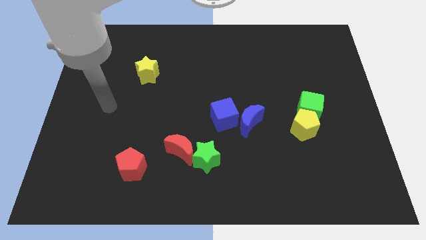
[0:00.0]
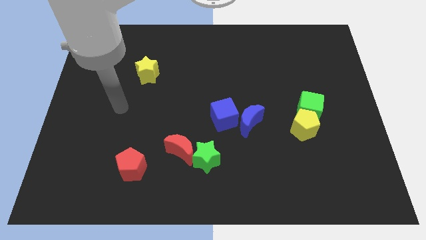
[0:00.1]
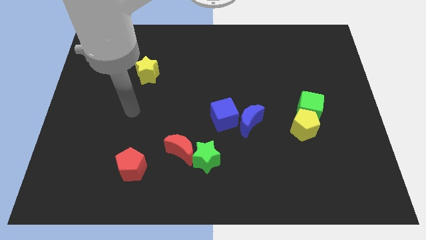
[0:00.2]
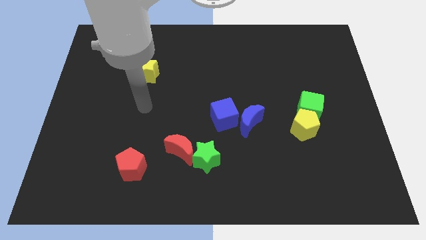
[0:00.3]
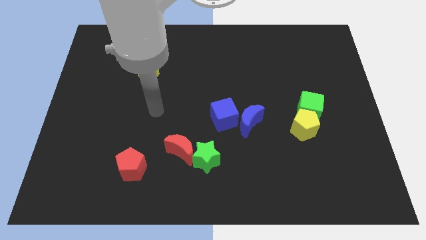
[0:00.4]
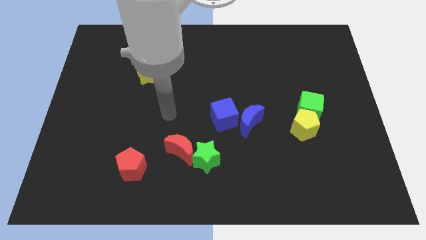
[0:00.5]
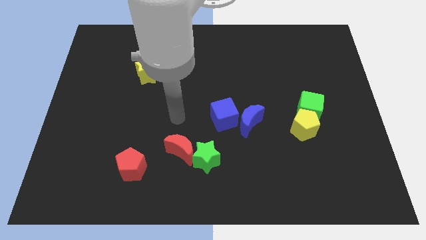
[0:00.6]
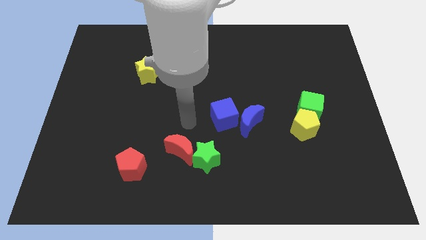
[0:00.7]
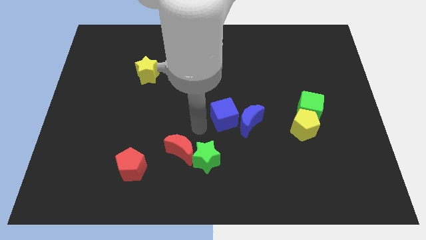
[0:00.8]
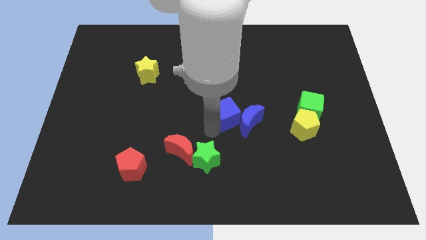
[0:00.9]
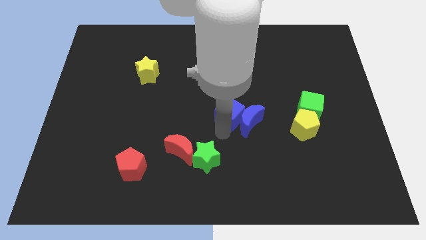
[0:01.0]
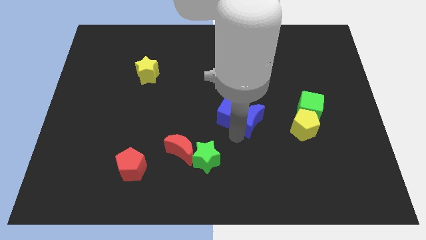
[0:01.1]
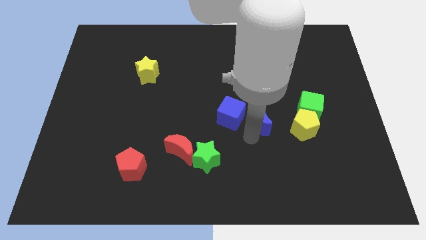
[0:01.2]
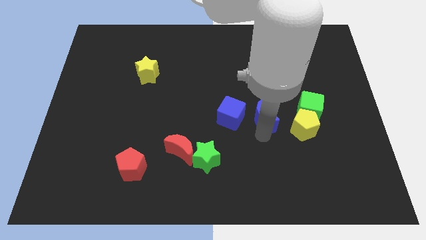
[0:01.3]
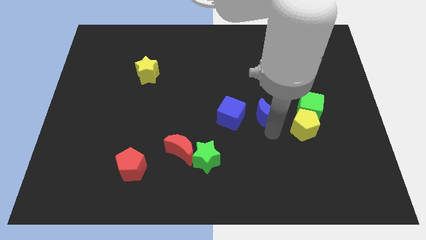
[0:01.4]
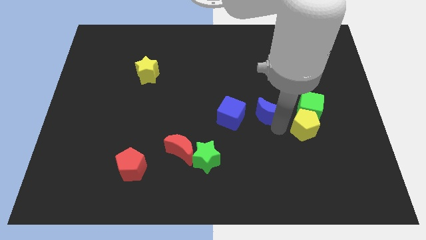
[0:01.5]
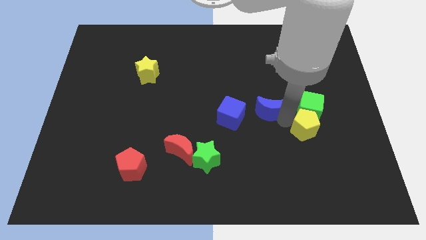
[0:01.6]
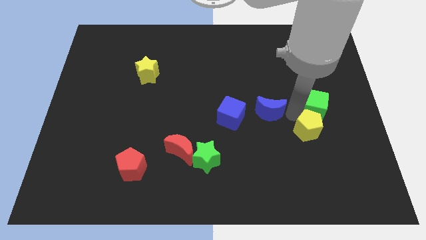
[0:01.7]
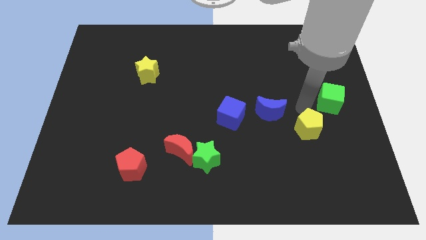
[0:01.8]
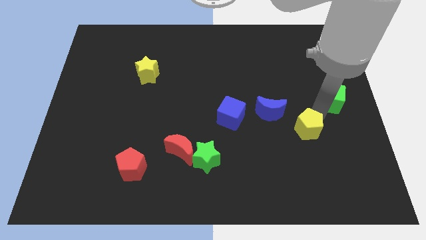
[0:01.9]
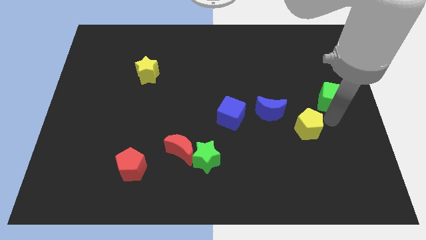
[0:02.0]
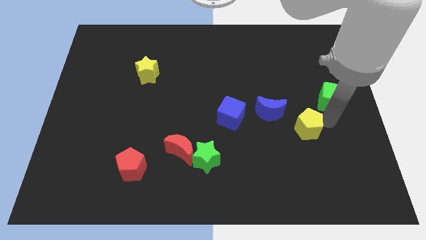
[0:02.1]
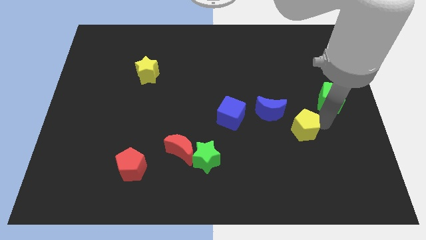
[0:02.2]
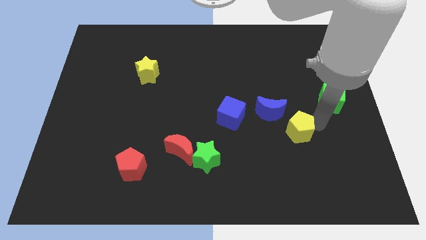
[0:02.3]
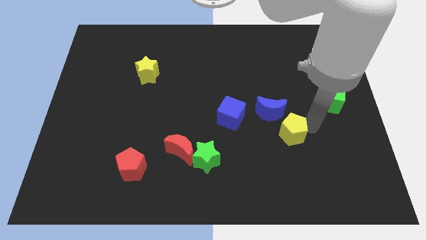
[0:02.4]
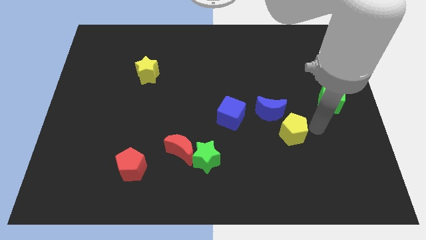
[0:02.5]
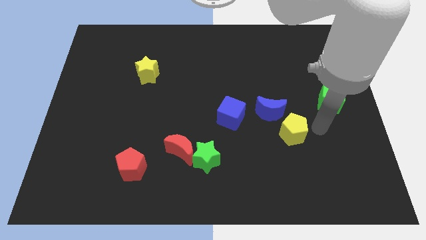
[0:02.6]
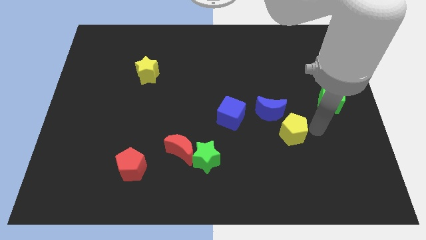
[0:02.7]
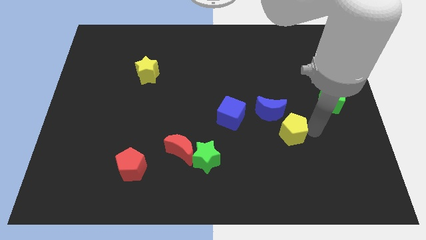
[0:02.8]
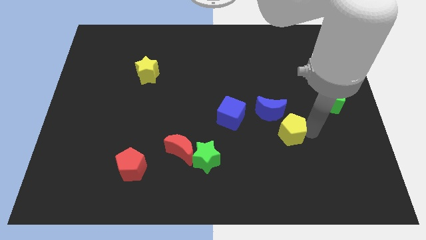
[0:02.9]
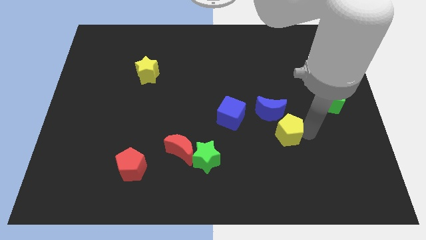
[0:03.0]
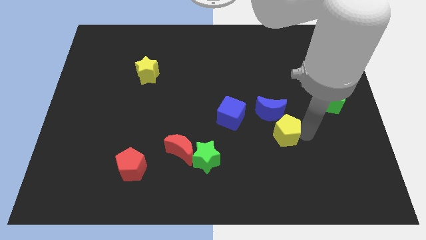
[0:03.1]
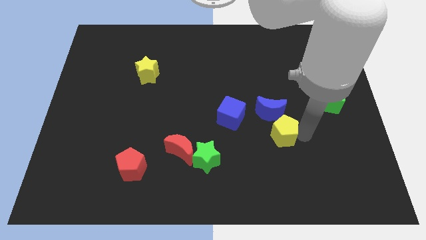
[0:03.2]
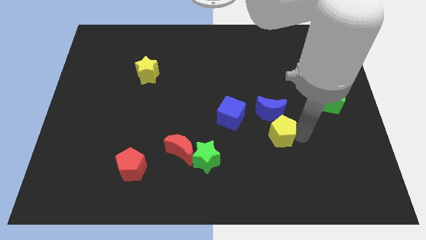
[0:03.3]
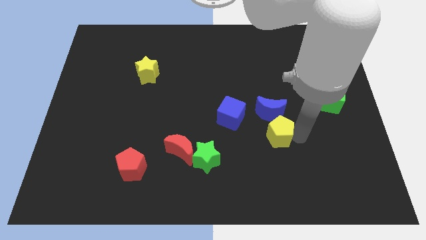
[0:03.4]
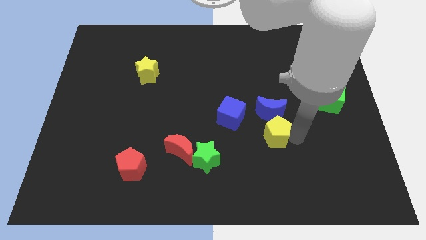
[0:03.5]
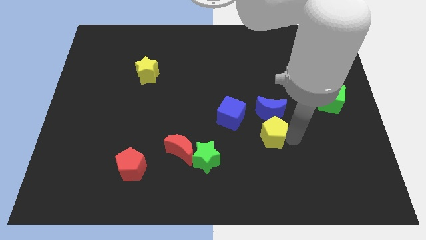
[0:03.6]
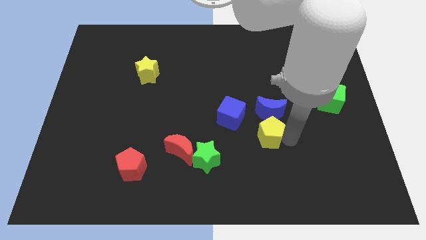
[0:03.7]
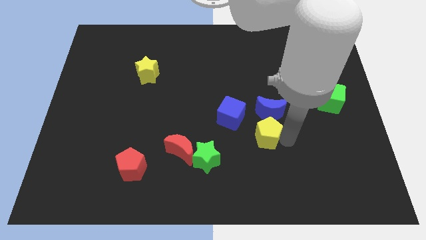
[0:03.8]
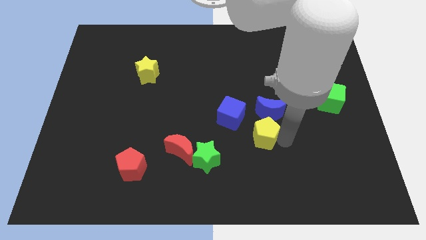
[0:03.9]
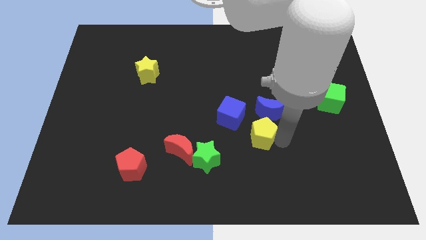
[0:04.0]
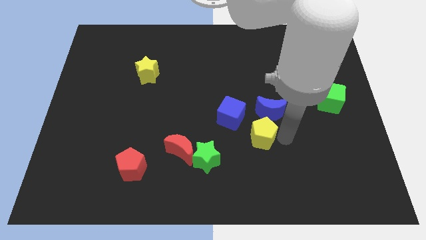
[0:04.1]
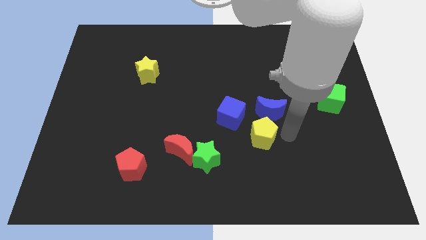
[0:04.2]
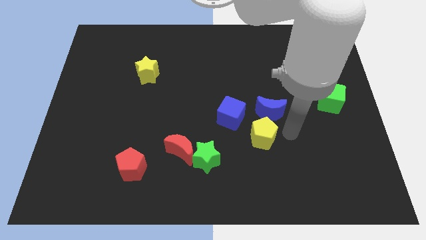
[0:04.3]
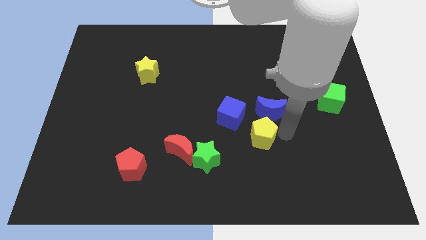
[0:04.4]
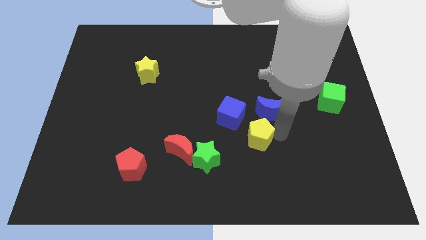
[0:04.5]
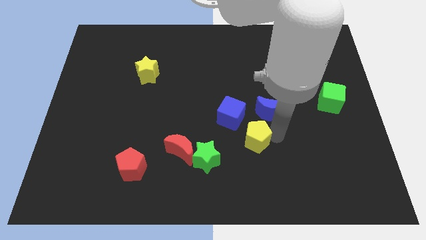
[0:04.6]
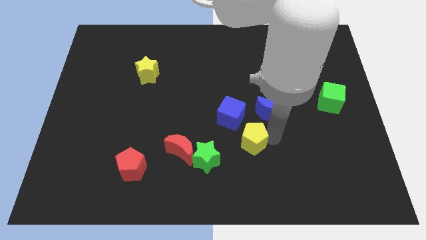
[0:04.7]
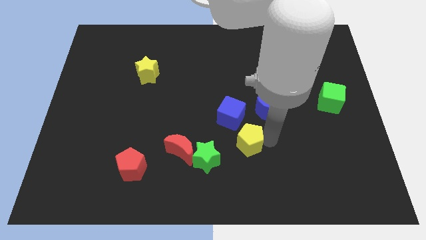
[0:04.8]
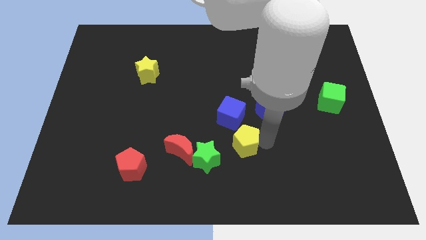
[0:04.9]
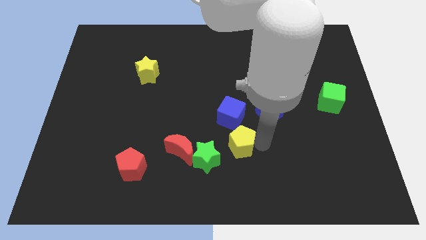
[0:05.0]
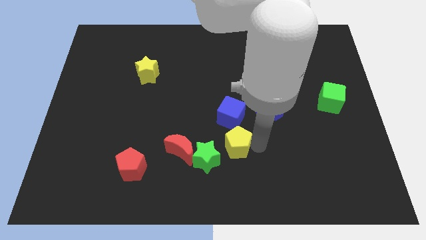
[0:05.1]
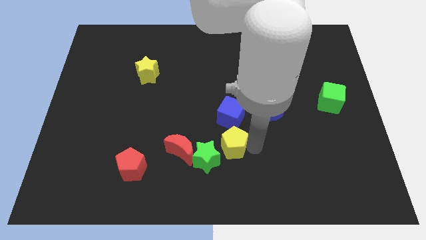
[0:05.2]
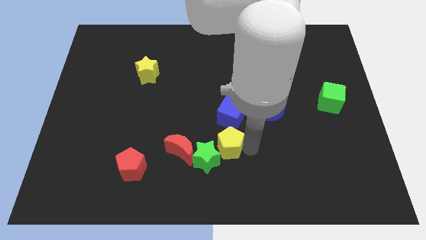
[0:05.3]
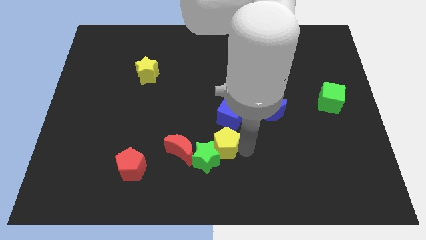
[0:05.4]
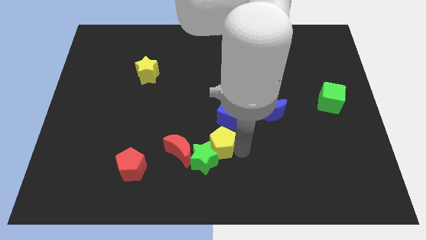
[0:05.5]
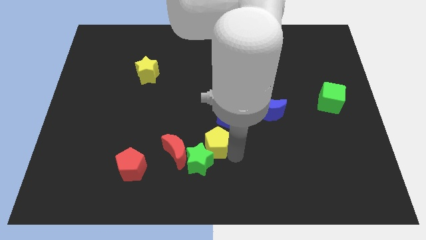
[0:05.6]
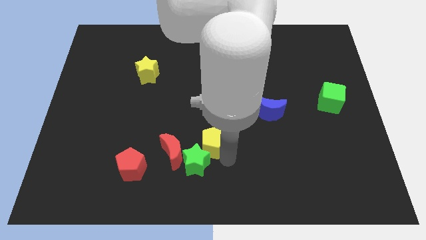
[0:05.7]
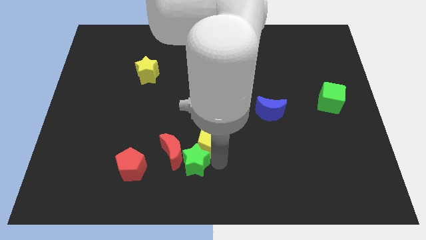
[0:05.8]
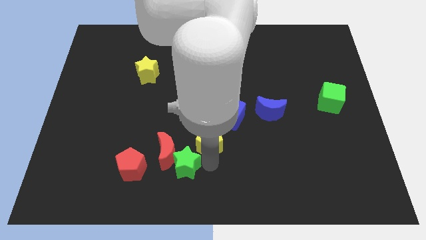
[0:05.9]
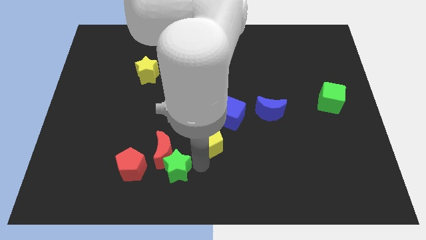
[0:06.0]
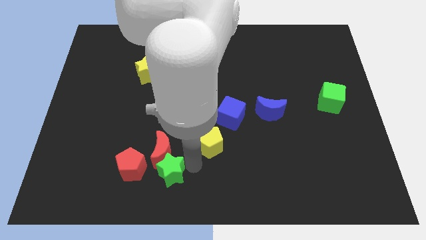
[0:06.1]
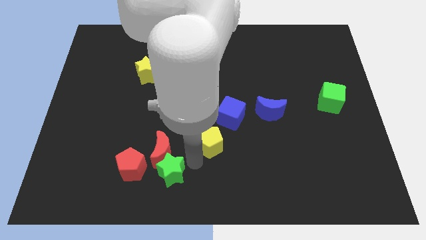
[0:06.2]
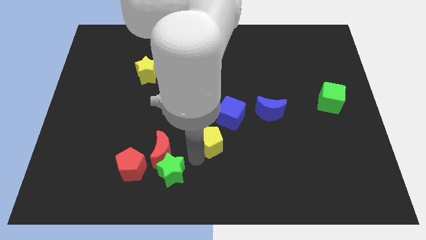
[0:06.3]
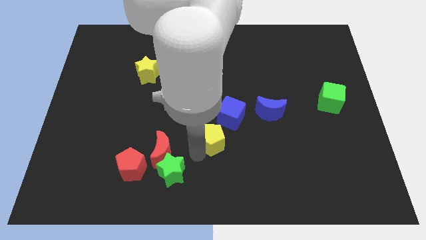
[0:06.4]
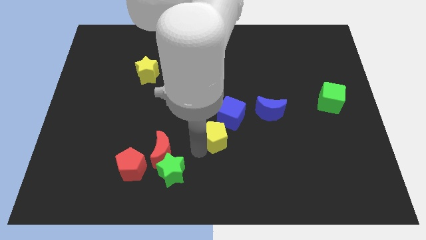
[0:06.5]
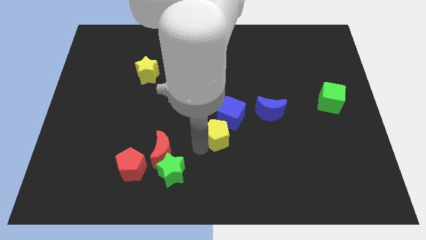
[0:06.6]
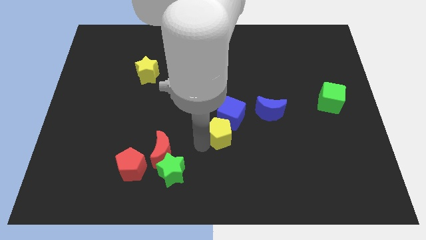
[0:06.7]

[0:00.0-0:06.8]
move the yellow pentagon close to the blue cube

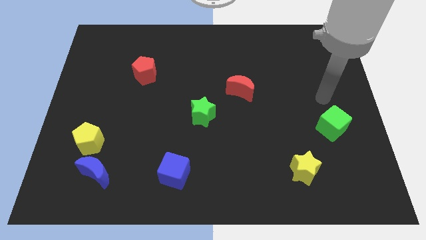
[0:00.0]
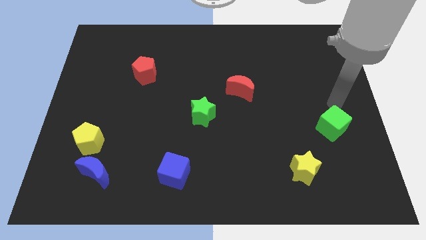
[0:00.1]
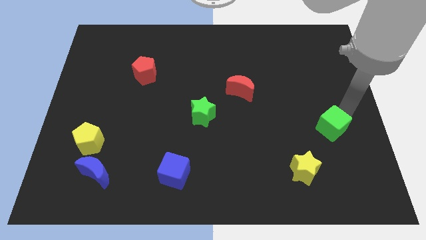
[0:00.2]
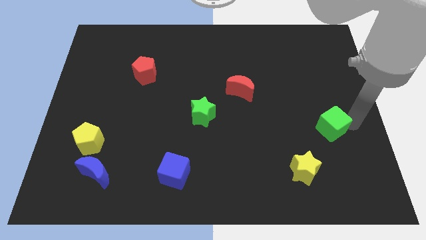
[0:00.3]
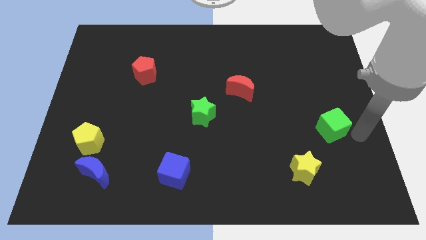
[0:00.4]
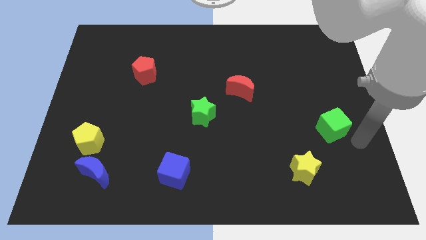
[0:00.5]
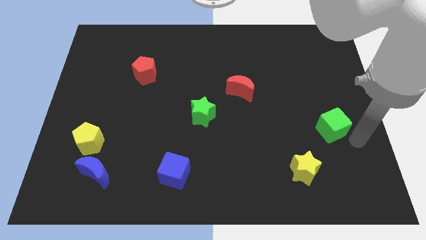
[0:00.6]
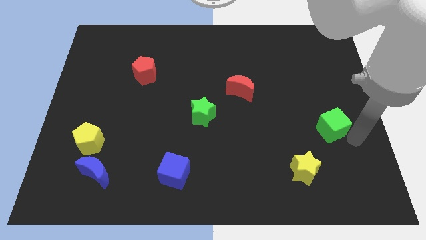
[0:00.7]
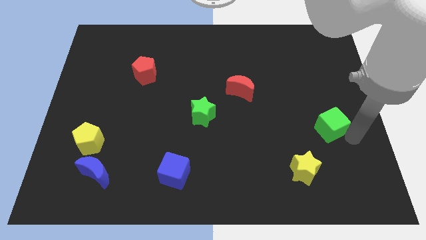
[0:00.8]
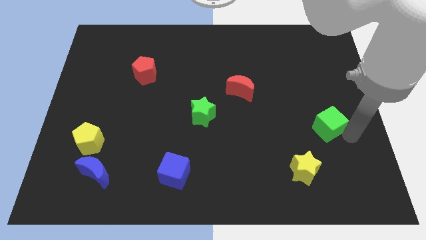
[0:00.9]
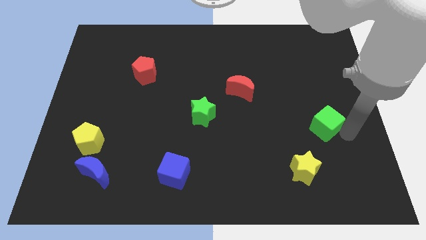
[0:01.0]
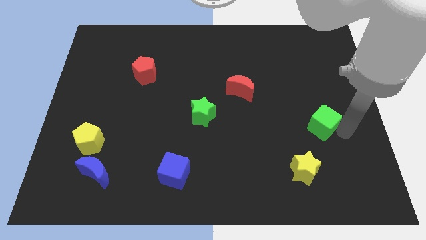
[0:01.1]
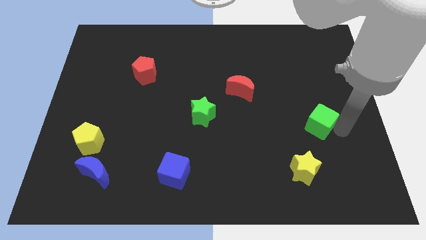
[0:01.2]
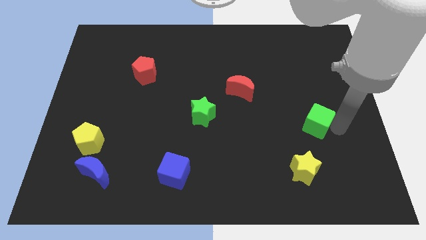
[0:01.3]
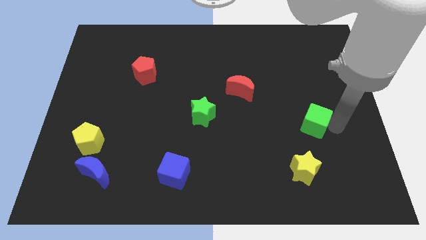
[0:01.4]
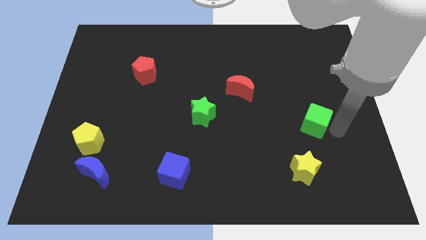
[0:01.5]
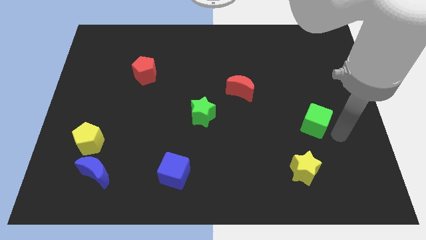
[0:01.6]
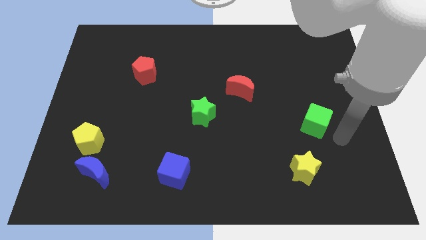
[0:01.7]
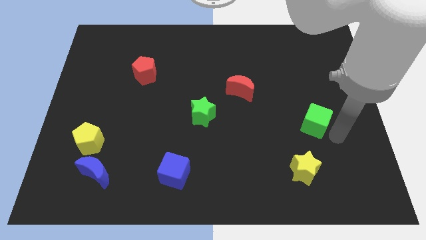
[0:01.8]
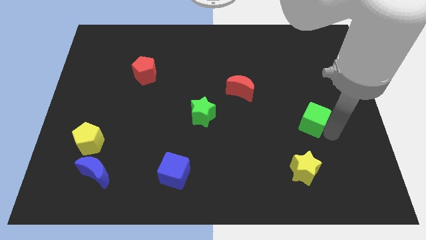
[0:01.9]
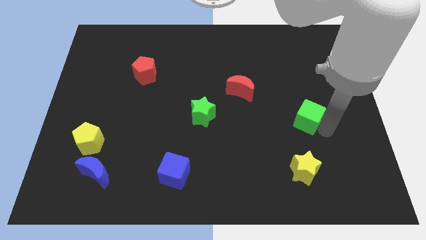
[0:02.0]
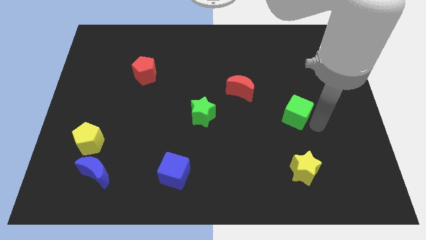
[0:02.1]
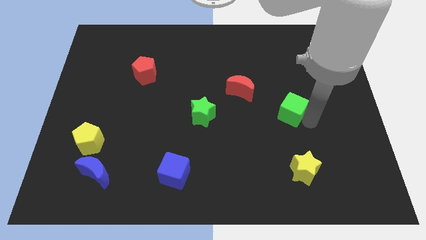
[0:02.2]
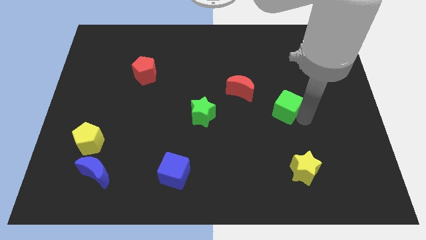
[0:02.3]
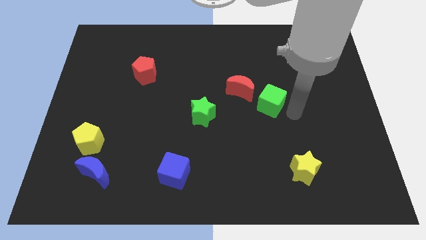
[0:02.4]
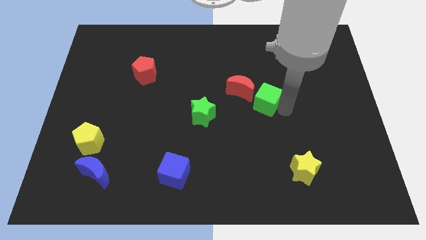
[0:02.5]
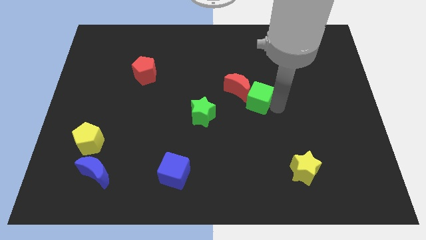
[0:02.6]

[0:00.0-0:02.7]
put the green cube towards the red moon
